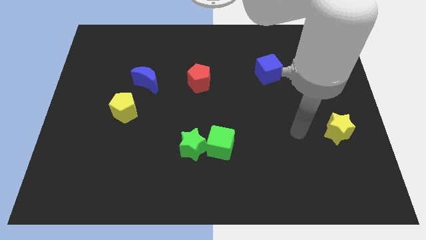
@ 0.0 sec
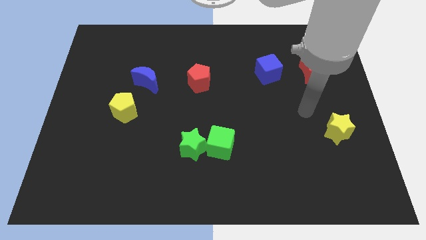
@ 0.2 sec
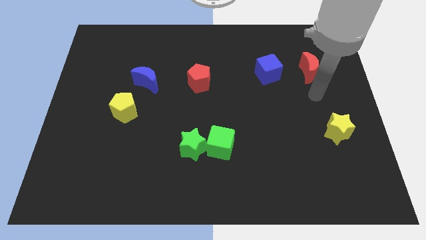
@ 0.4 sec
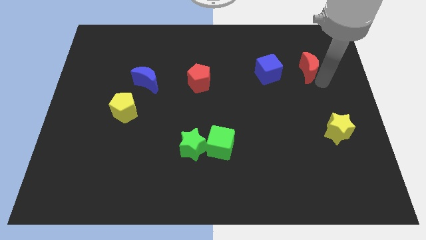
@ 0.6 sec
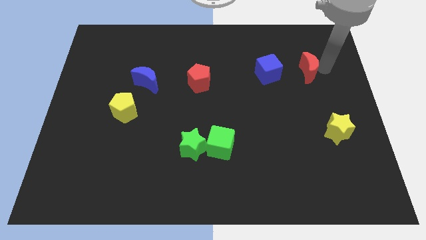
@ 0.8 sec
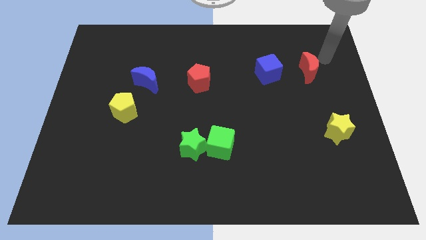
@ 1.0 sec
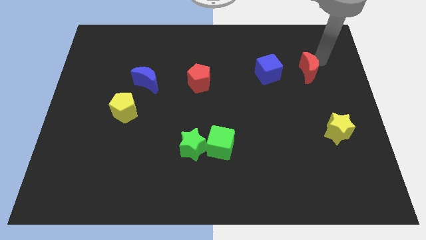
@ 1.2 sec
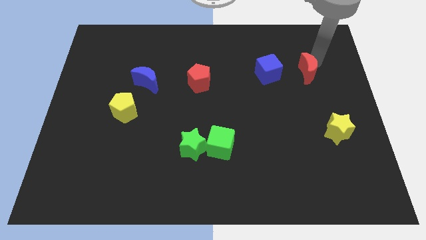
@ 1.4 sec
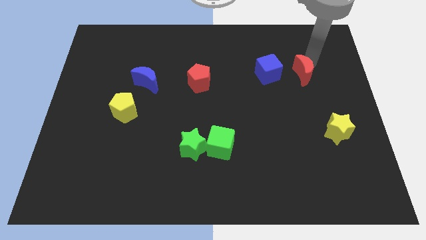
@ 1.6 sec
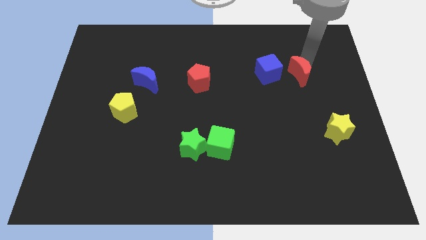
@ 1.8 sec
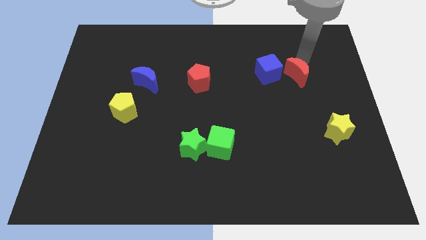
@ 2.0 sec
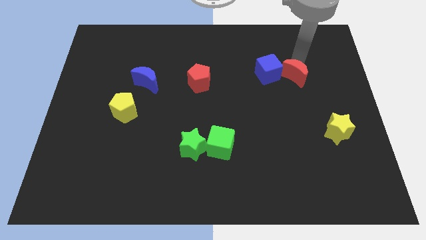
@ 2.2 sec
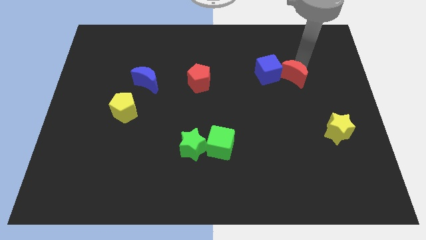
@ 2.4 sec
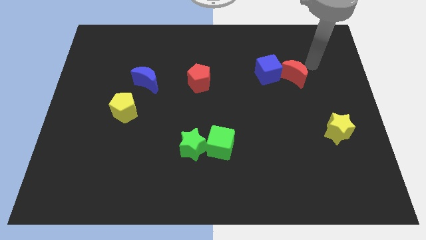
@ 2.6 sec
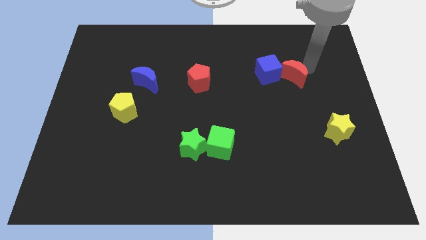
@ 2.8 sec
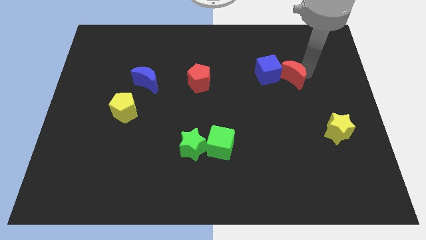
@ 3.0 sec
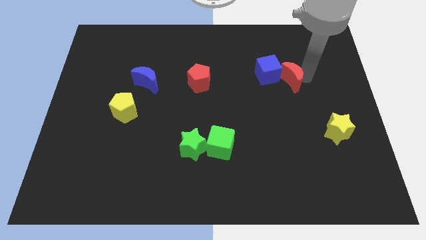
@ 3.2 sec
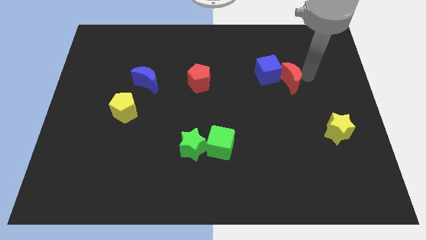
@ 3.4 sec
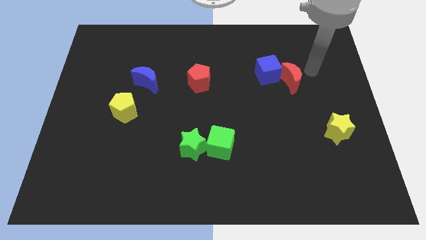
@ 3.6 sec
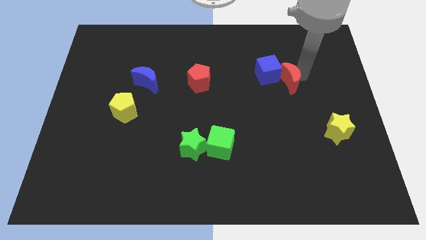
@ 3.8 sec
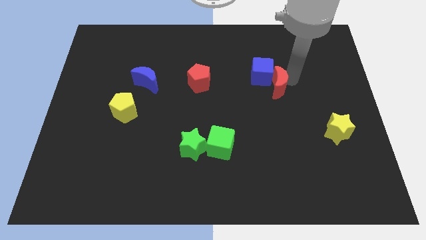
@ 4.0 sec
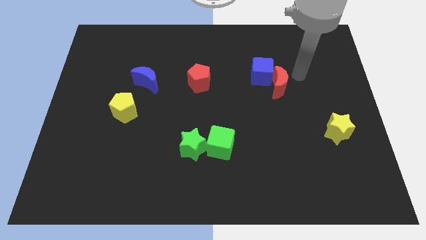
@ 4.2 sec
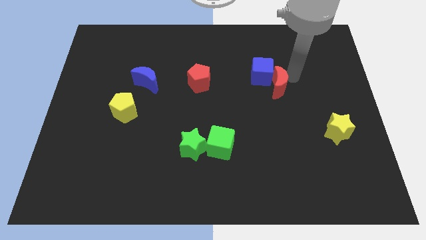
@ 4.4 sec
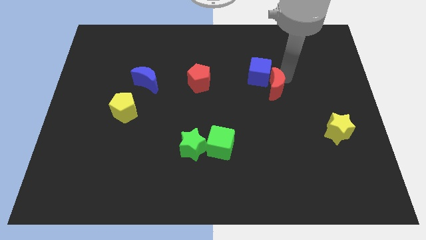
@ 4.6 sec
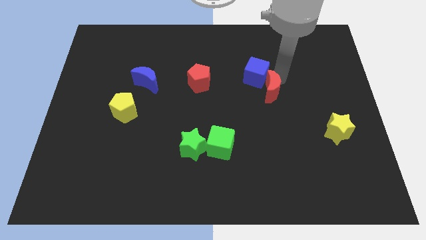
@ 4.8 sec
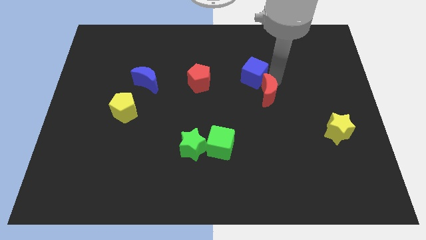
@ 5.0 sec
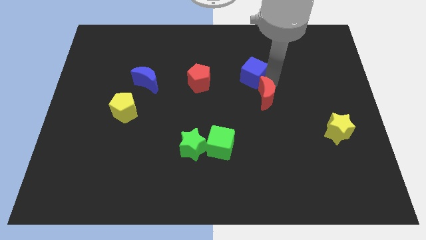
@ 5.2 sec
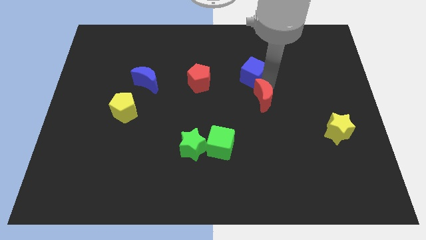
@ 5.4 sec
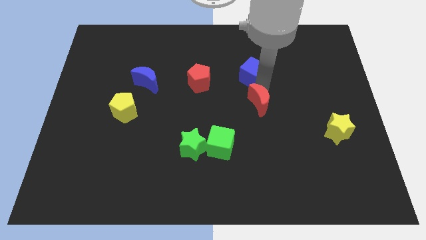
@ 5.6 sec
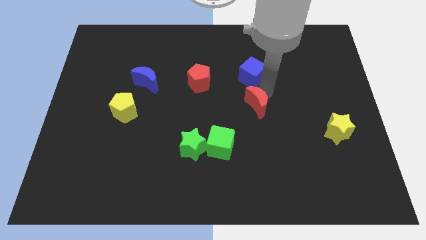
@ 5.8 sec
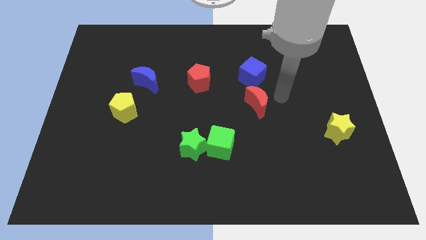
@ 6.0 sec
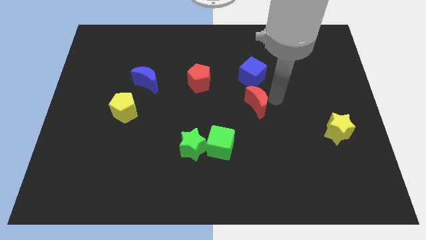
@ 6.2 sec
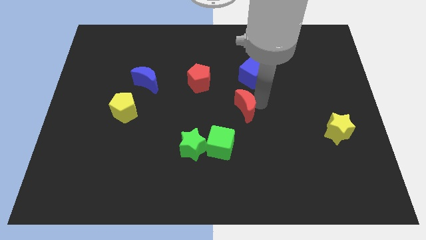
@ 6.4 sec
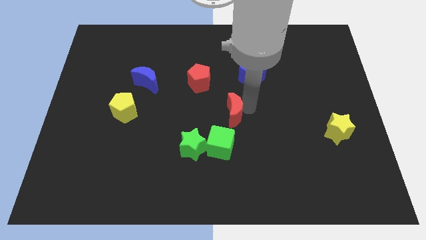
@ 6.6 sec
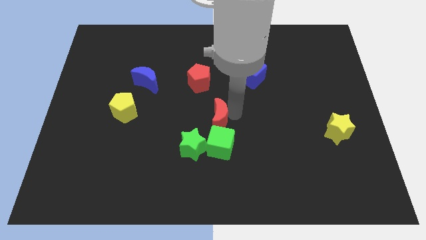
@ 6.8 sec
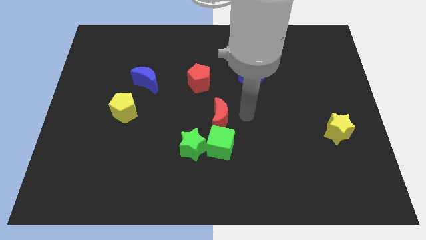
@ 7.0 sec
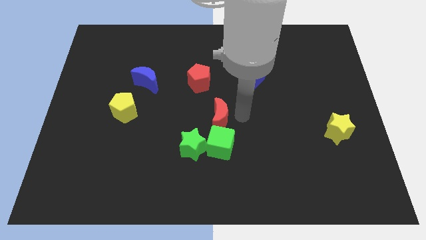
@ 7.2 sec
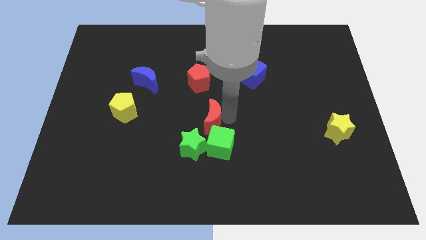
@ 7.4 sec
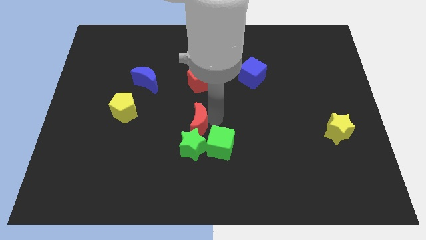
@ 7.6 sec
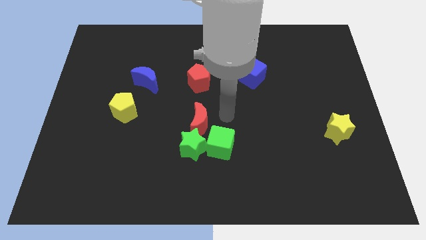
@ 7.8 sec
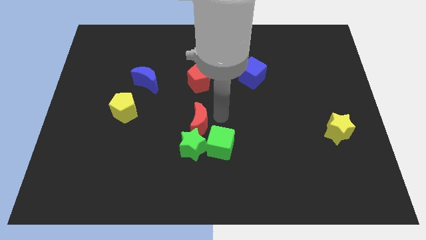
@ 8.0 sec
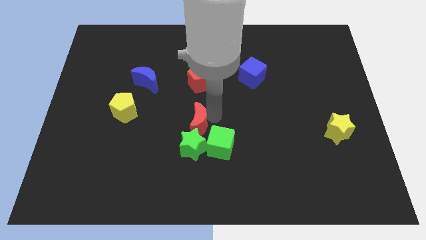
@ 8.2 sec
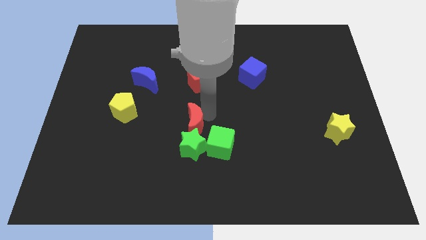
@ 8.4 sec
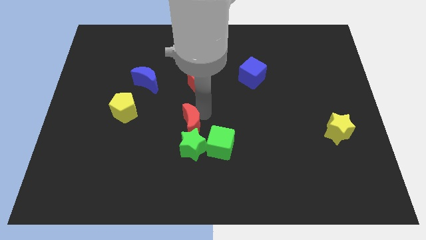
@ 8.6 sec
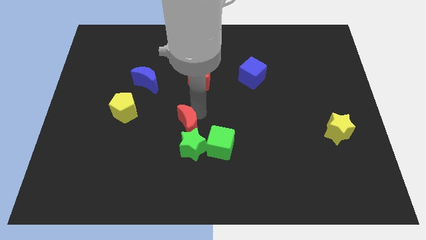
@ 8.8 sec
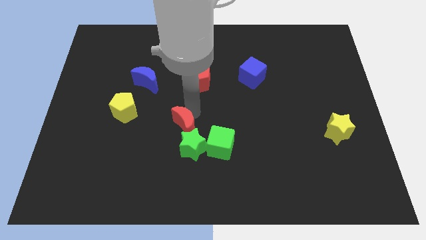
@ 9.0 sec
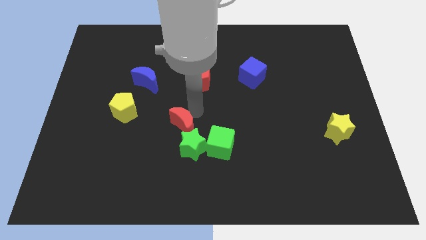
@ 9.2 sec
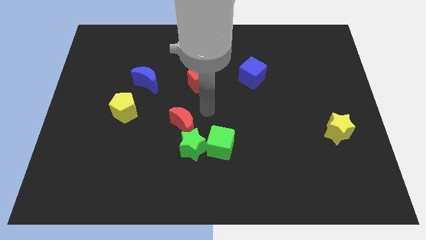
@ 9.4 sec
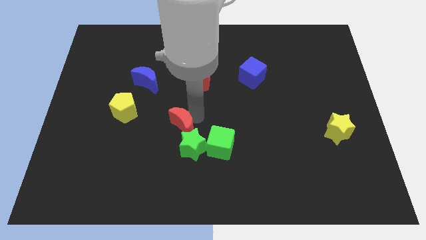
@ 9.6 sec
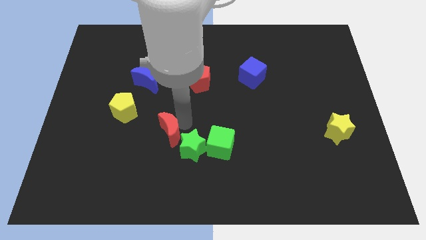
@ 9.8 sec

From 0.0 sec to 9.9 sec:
put the red moon to the left of the green star

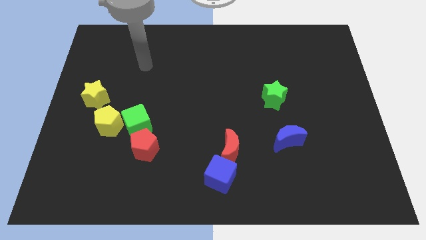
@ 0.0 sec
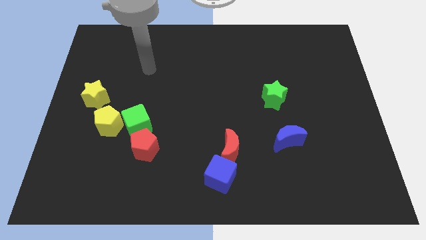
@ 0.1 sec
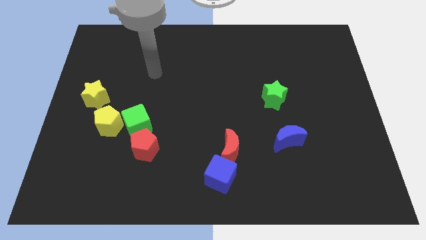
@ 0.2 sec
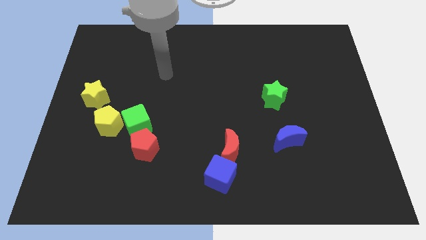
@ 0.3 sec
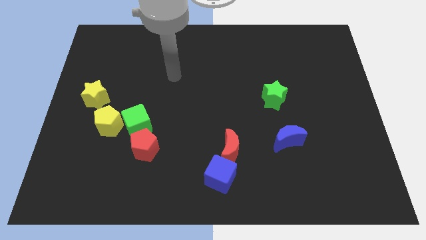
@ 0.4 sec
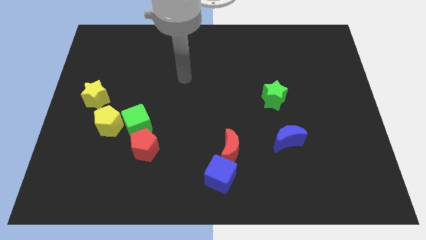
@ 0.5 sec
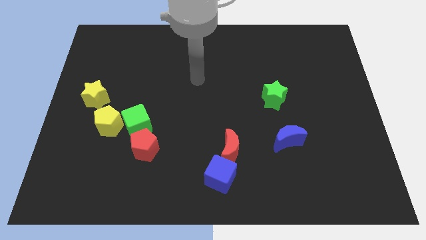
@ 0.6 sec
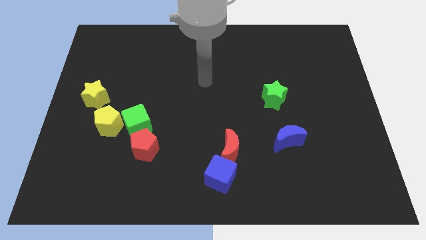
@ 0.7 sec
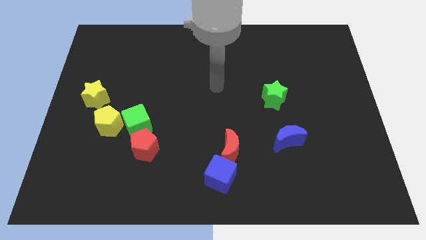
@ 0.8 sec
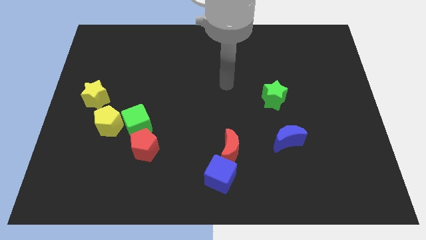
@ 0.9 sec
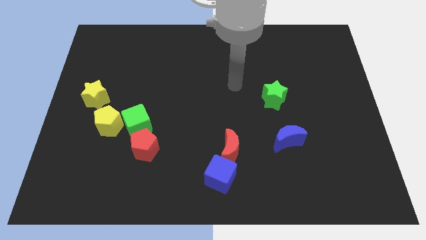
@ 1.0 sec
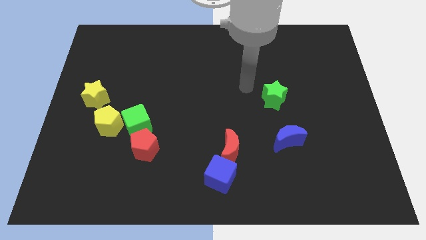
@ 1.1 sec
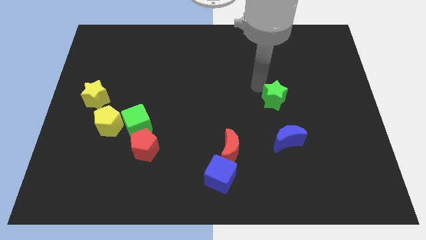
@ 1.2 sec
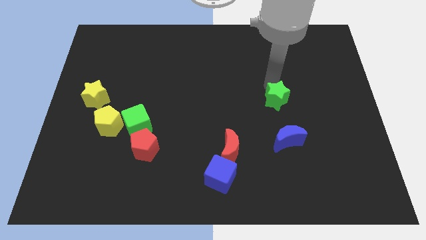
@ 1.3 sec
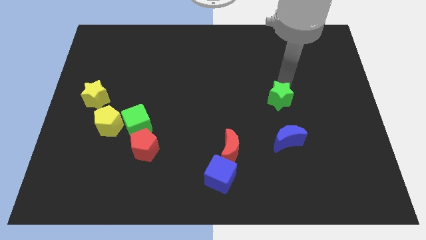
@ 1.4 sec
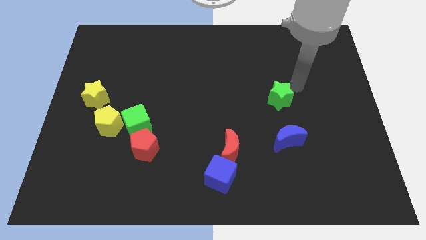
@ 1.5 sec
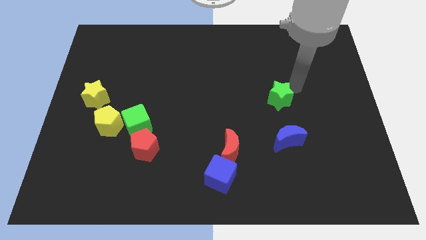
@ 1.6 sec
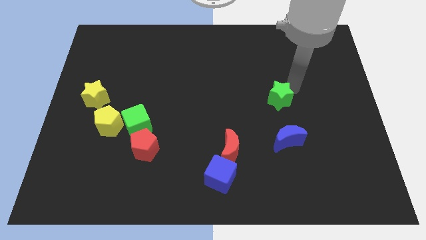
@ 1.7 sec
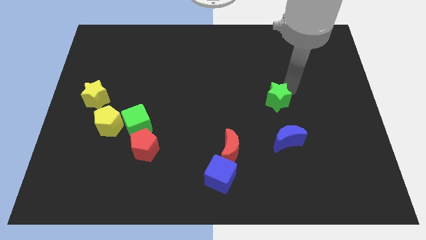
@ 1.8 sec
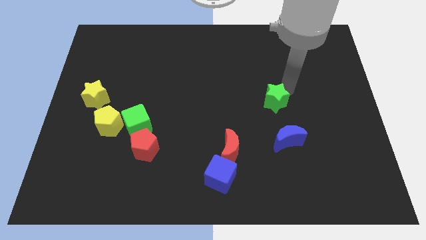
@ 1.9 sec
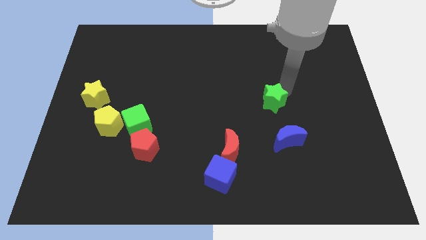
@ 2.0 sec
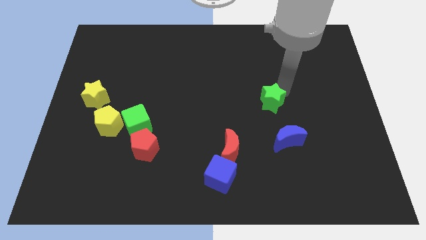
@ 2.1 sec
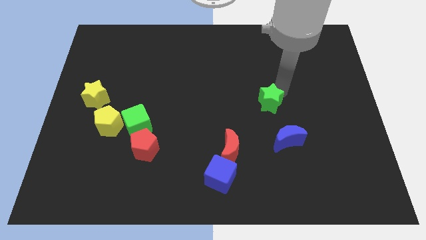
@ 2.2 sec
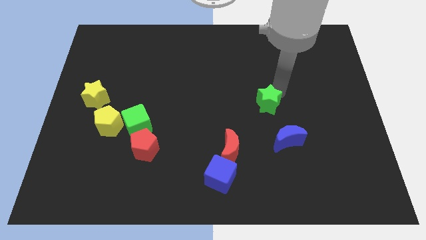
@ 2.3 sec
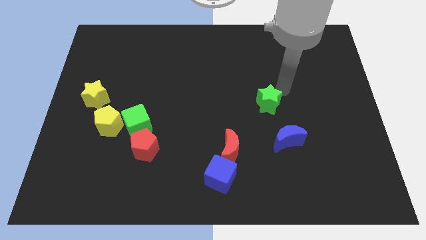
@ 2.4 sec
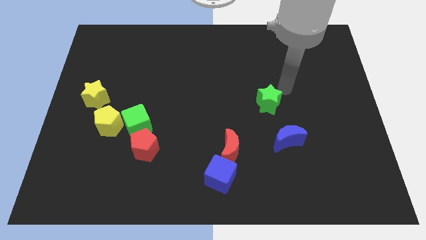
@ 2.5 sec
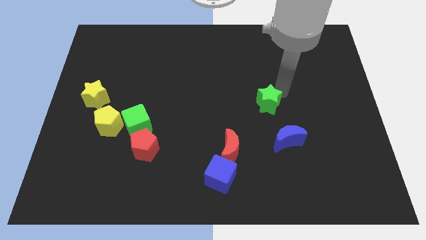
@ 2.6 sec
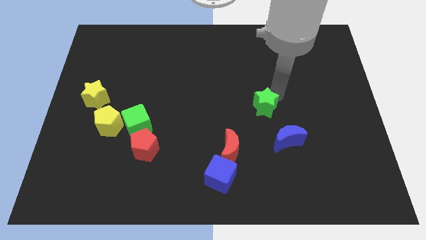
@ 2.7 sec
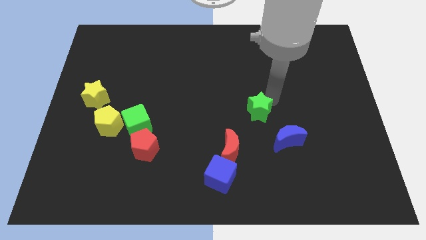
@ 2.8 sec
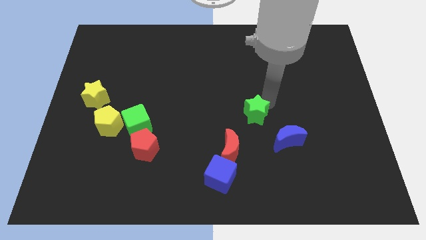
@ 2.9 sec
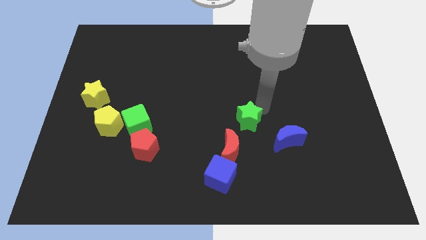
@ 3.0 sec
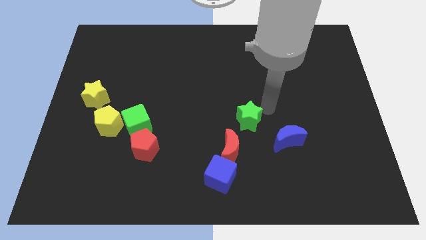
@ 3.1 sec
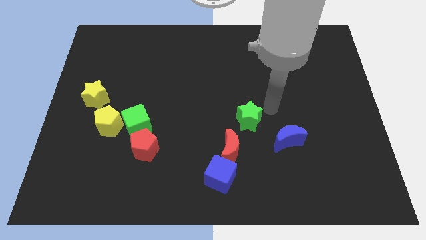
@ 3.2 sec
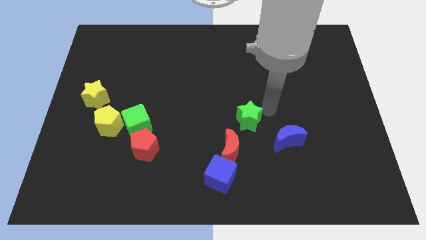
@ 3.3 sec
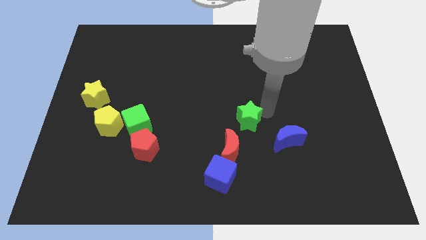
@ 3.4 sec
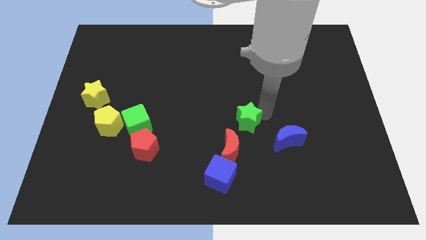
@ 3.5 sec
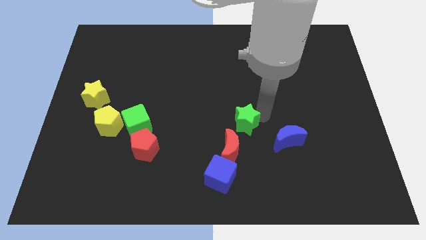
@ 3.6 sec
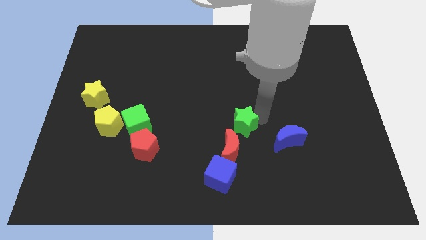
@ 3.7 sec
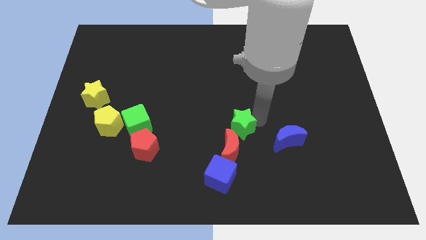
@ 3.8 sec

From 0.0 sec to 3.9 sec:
put the green star to the top of the blue cube
